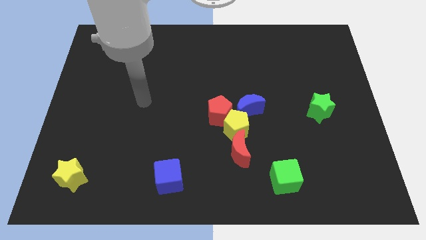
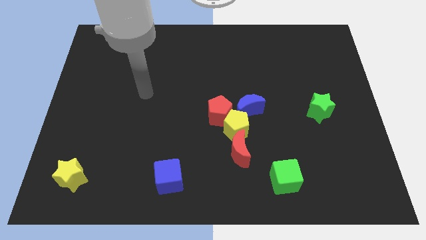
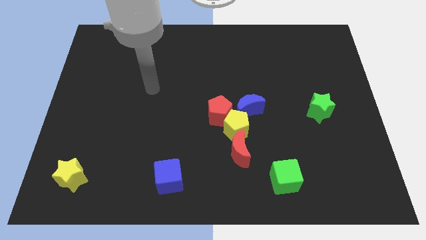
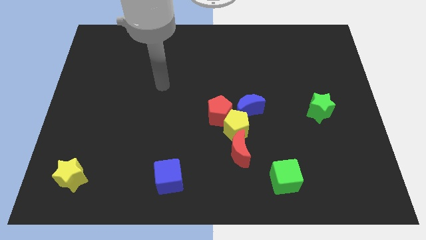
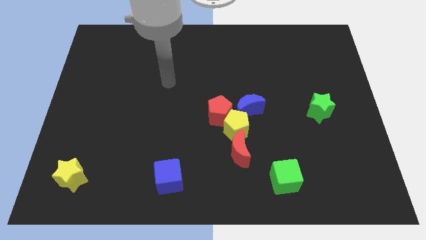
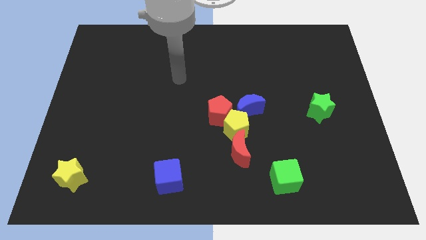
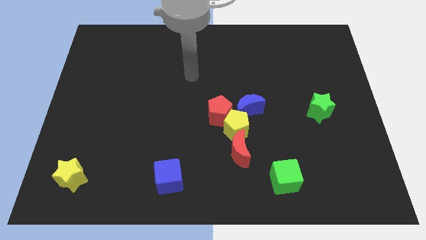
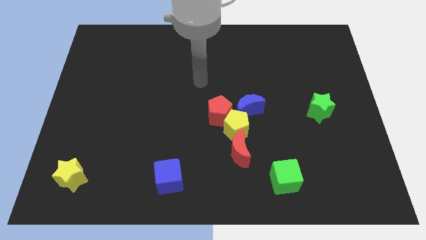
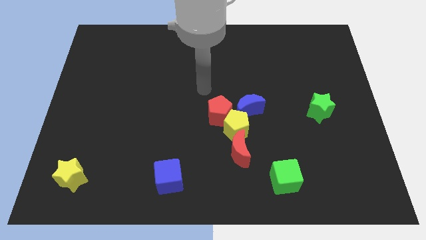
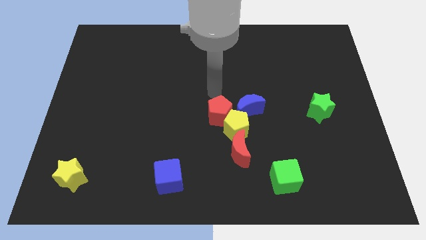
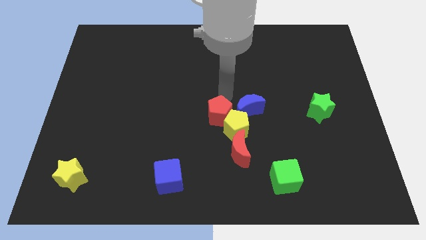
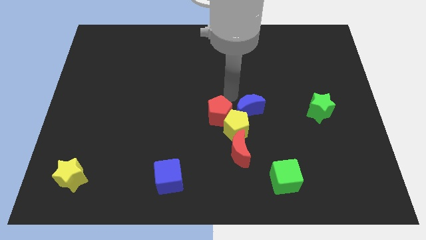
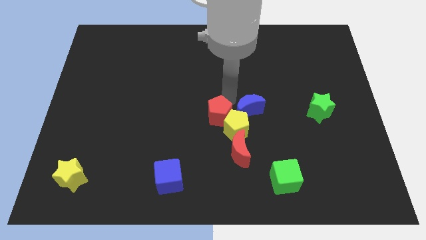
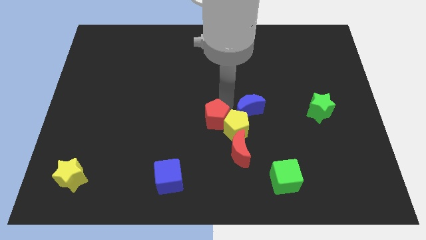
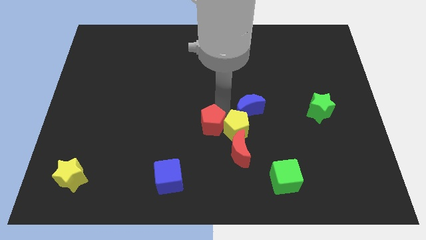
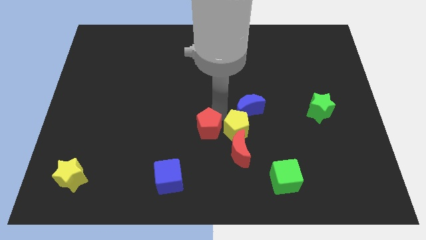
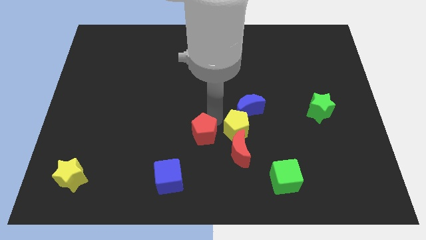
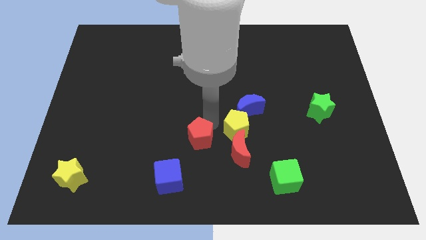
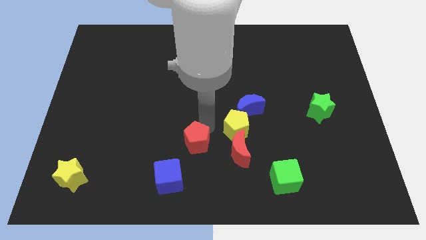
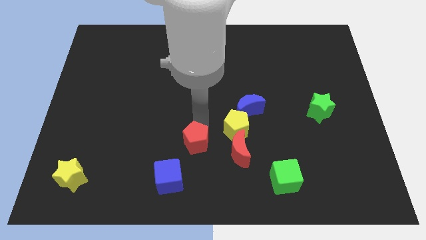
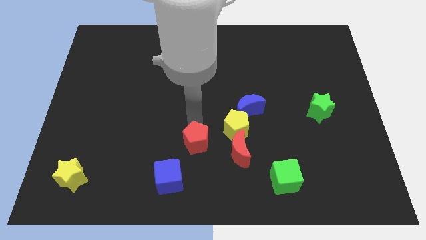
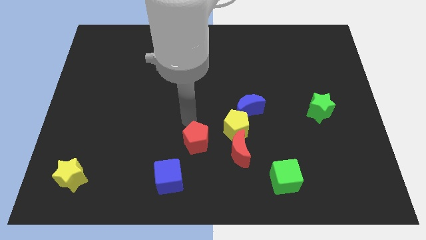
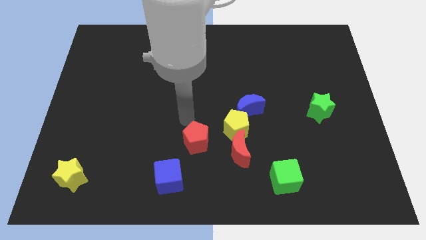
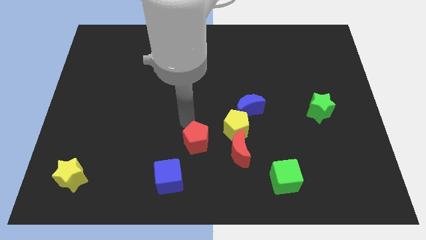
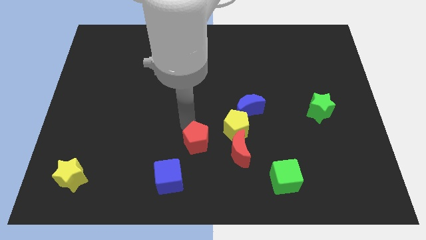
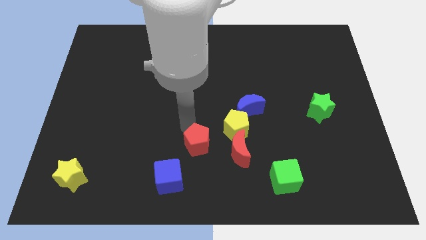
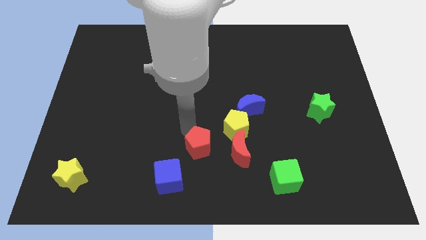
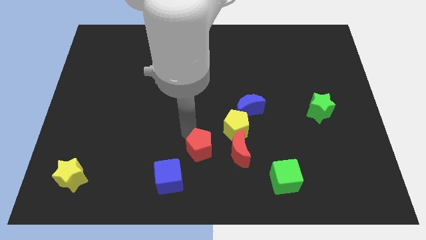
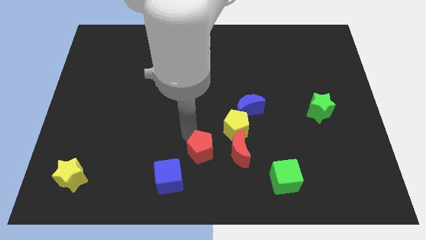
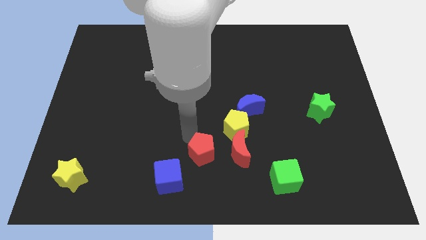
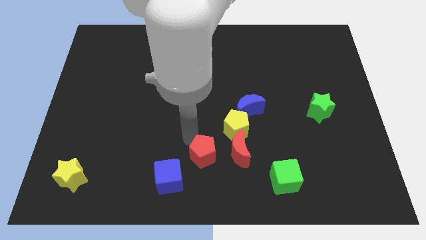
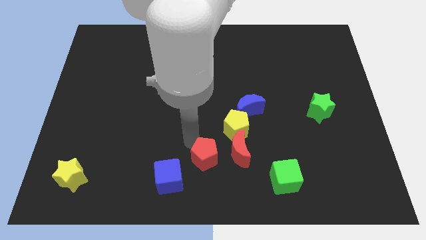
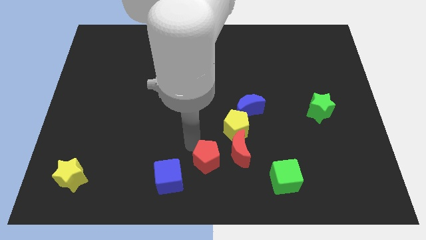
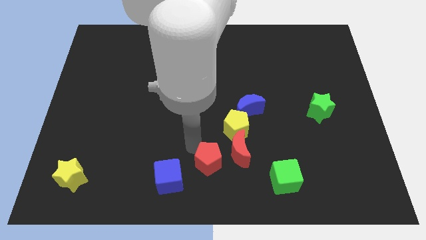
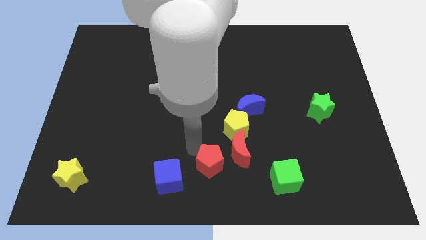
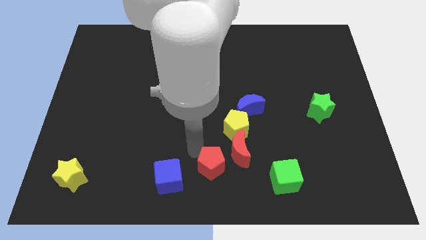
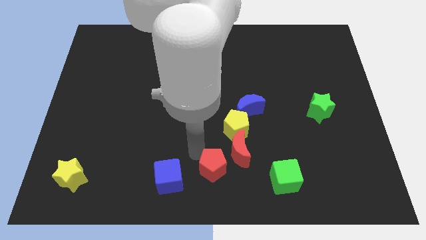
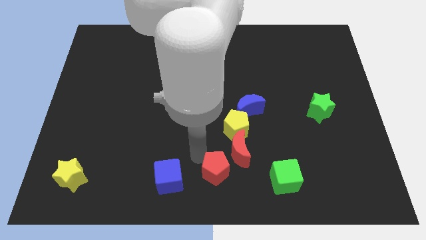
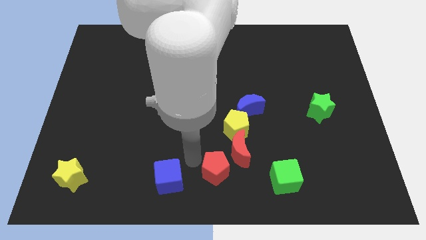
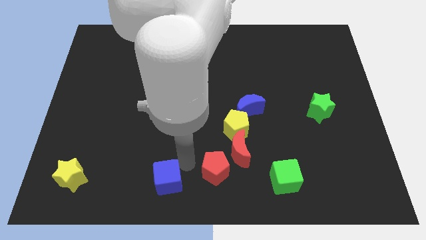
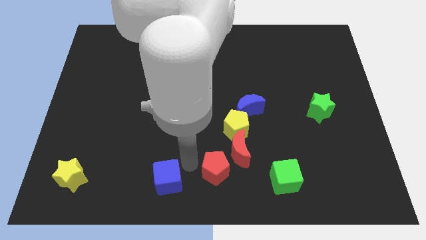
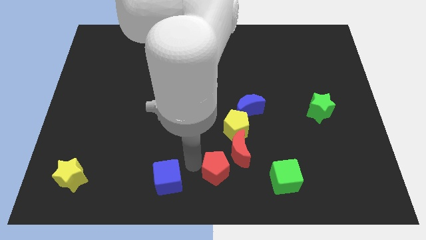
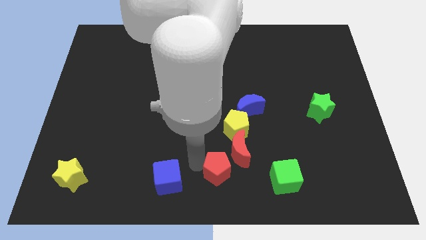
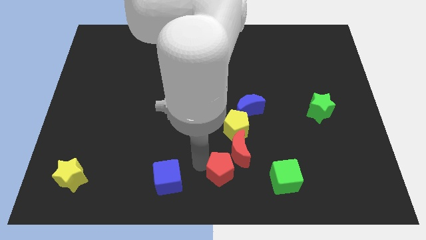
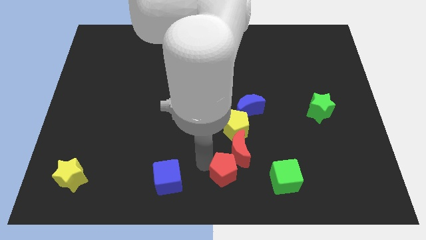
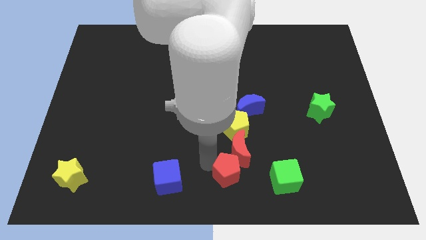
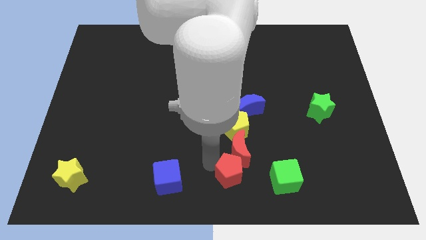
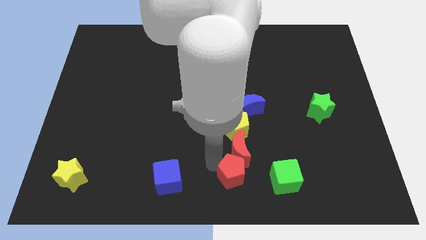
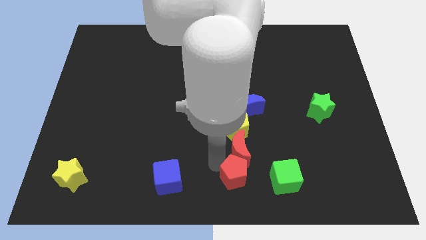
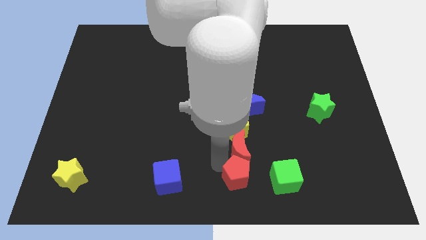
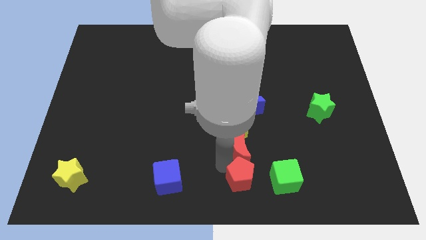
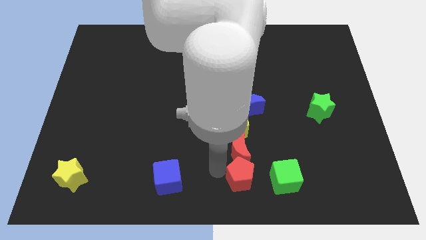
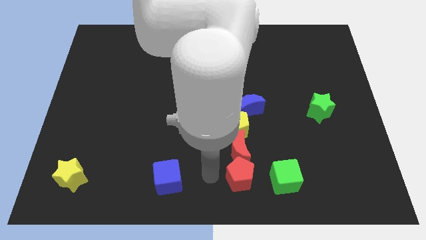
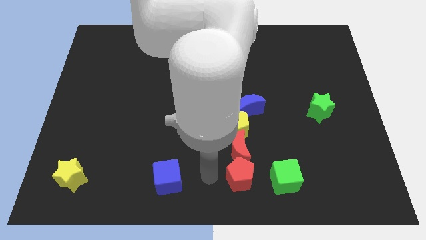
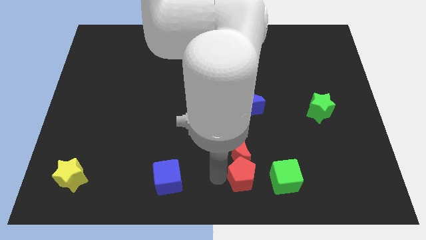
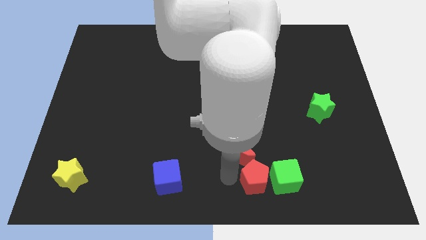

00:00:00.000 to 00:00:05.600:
put the red pentagon close to the green cube

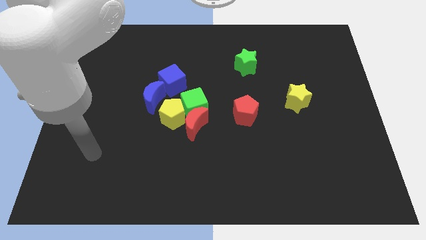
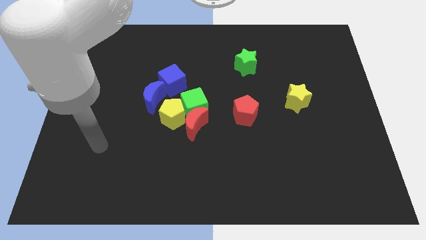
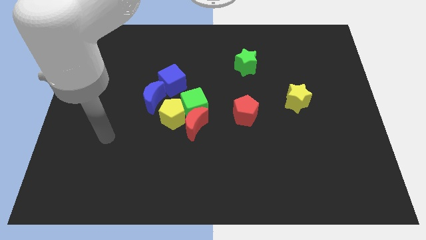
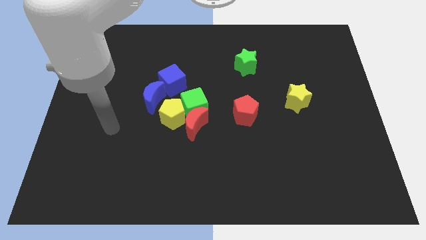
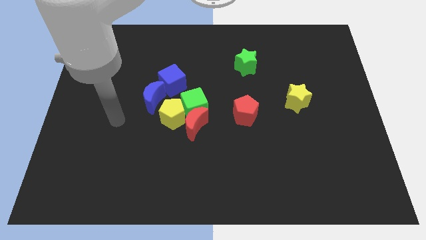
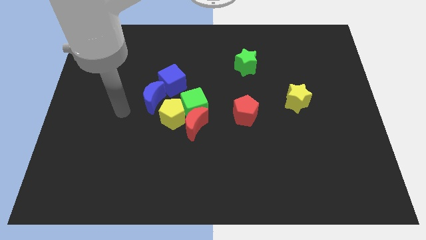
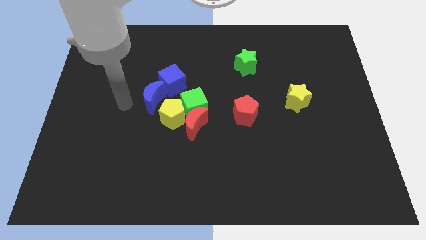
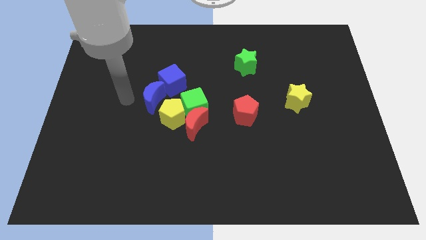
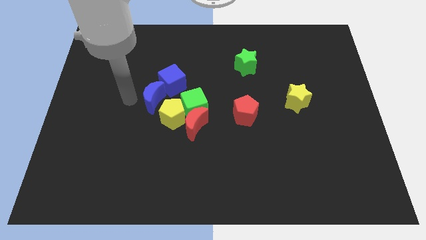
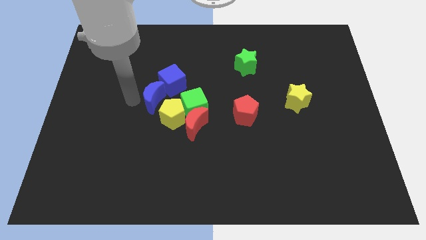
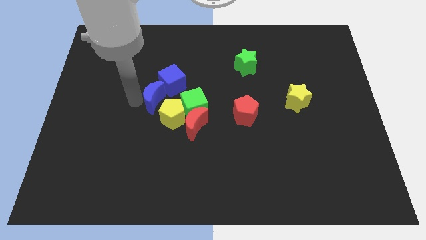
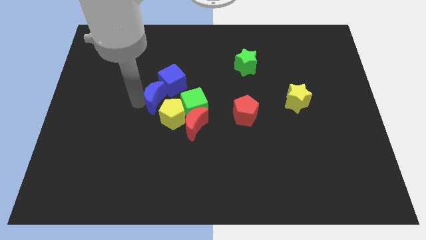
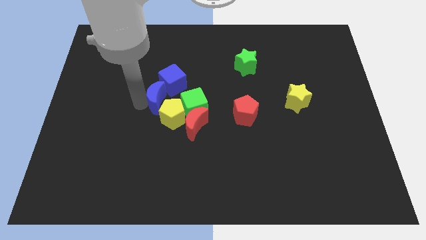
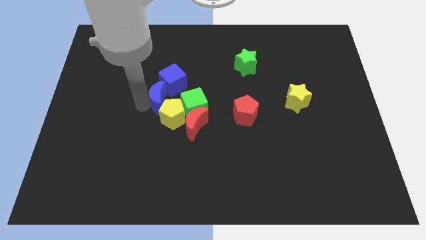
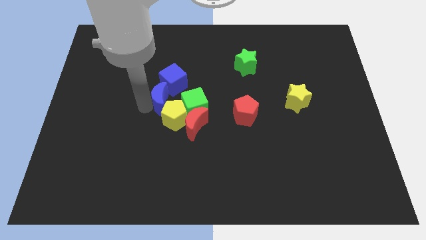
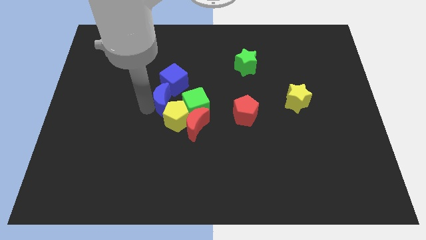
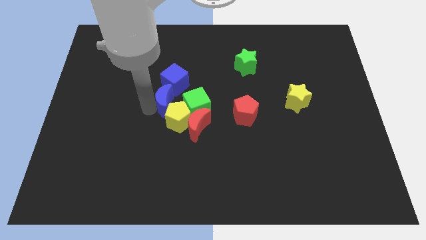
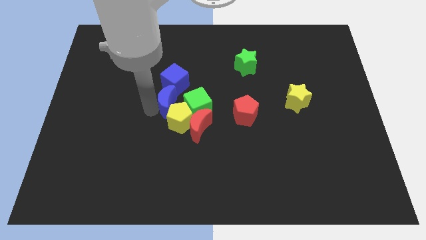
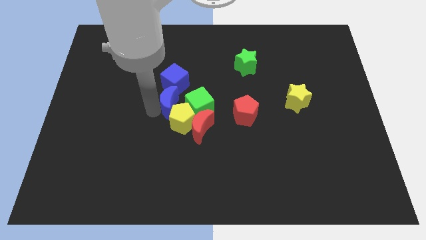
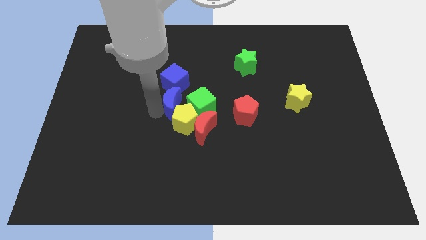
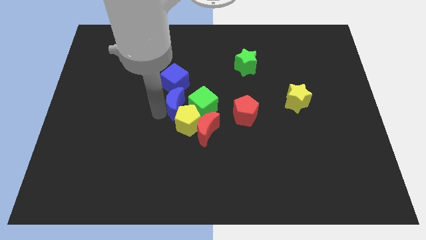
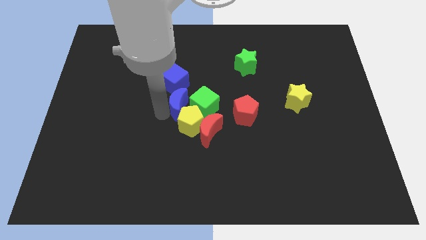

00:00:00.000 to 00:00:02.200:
move the blue moon towards the green cube
